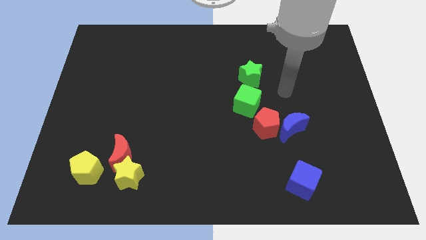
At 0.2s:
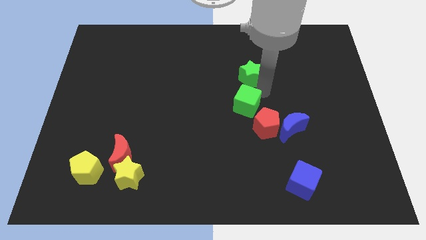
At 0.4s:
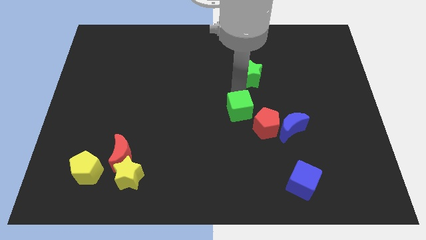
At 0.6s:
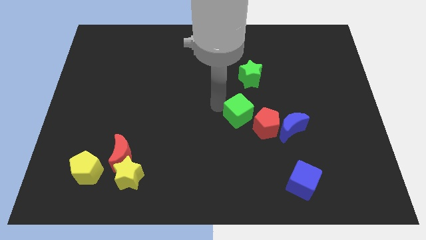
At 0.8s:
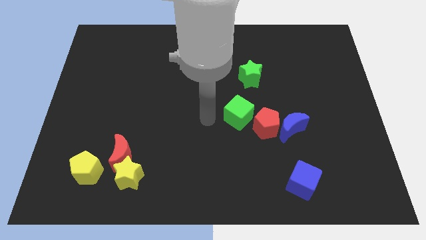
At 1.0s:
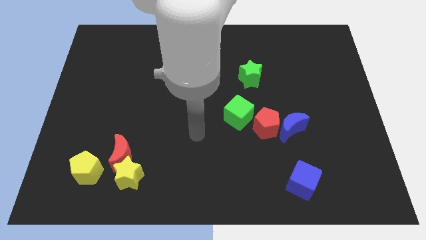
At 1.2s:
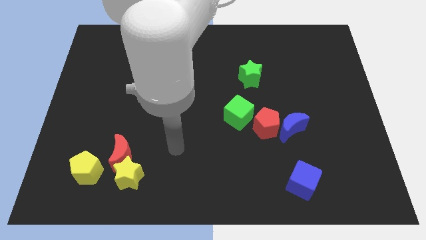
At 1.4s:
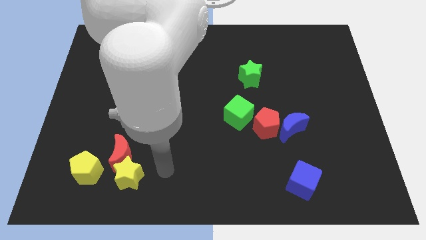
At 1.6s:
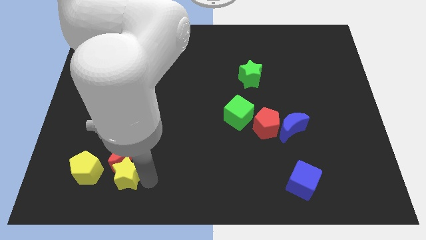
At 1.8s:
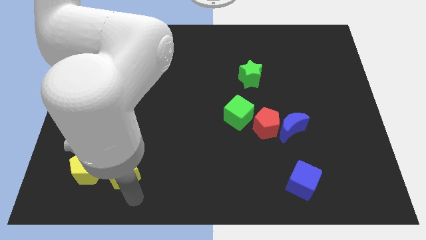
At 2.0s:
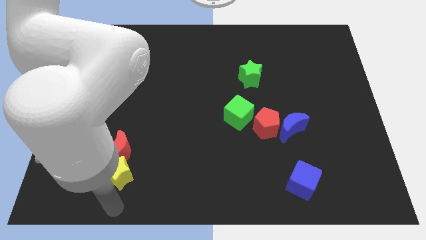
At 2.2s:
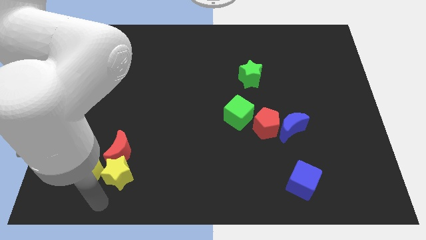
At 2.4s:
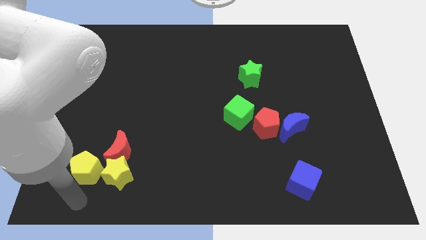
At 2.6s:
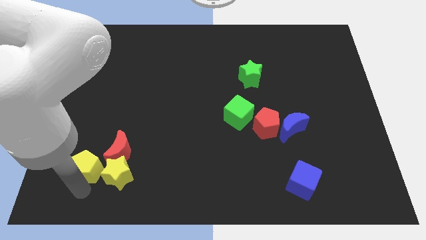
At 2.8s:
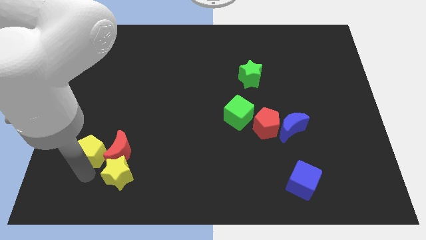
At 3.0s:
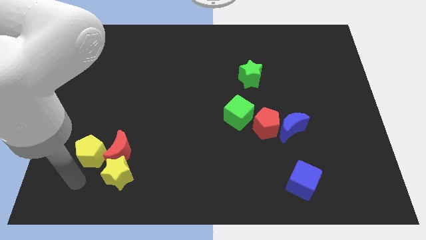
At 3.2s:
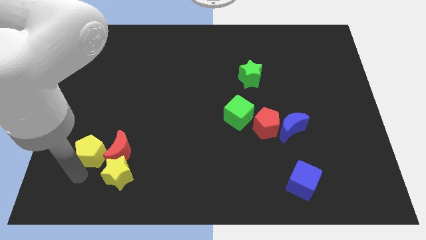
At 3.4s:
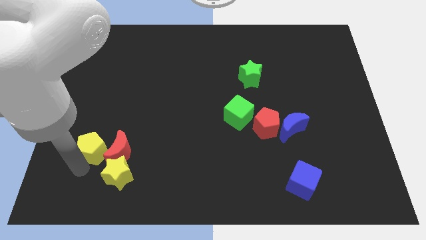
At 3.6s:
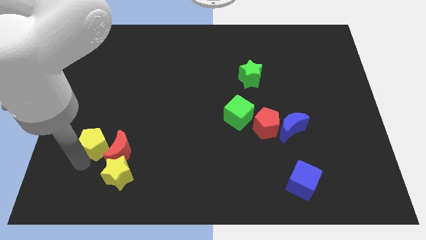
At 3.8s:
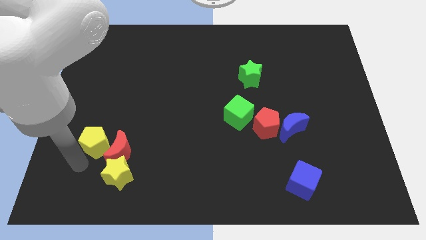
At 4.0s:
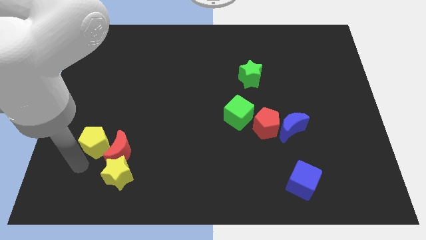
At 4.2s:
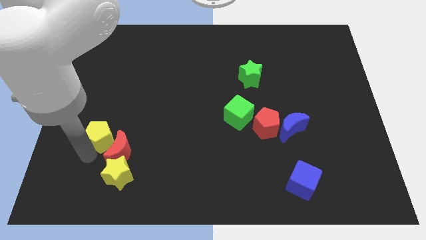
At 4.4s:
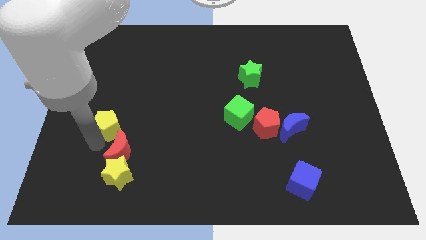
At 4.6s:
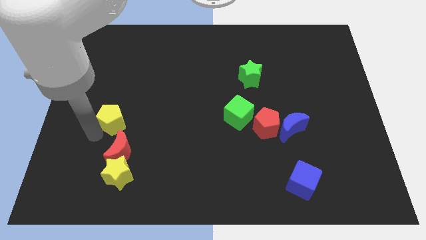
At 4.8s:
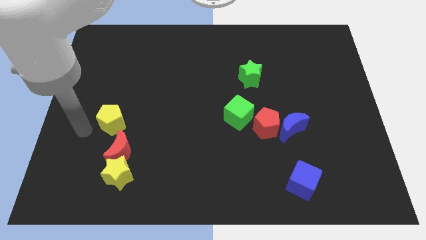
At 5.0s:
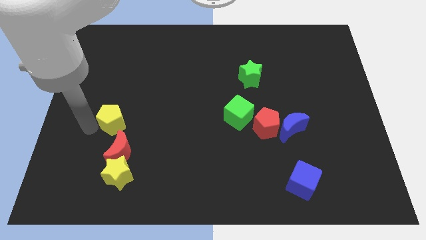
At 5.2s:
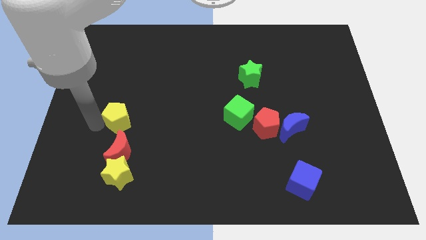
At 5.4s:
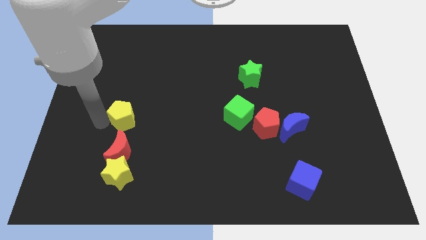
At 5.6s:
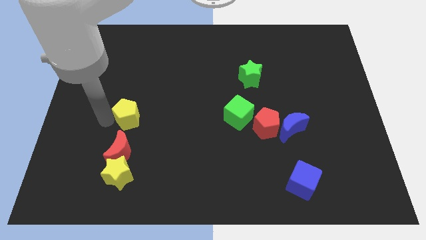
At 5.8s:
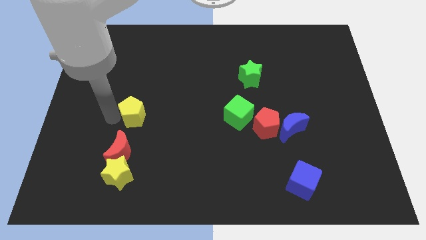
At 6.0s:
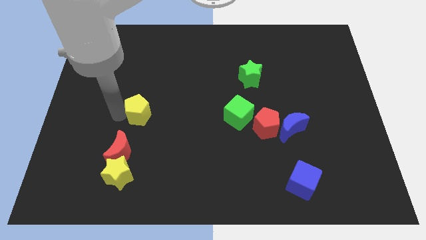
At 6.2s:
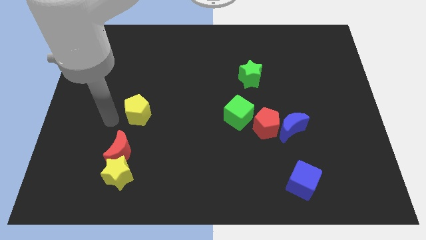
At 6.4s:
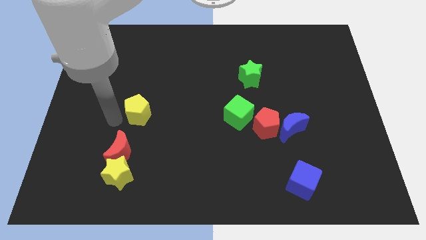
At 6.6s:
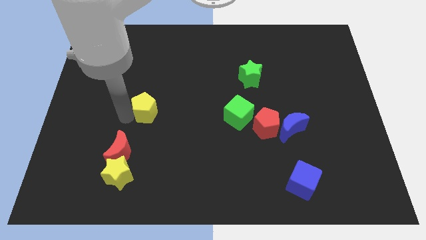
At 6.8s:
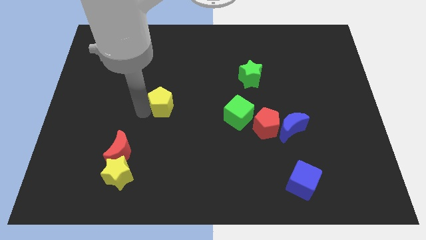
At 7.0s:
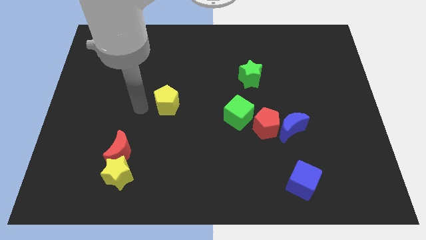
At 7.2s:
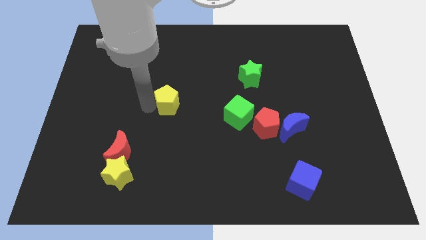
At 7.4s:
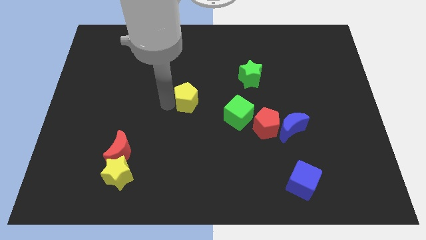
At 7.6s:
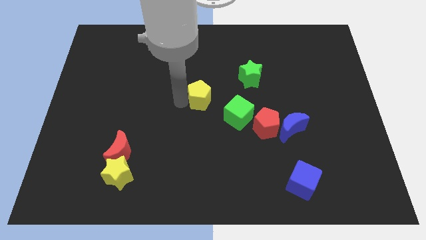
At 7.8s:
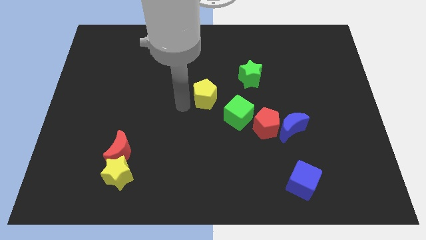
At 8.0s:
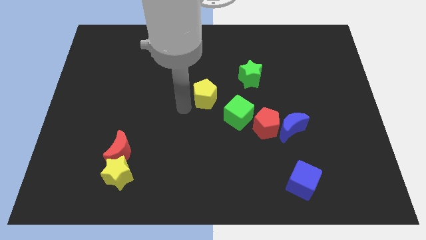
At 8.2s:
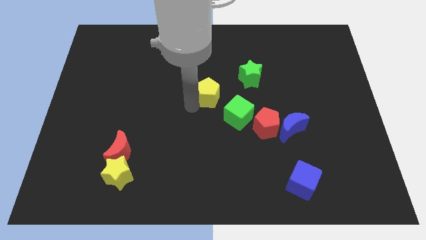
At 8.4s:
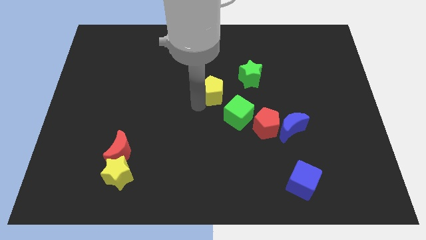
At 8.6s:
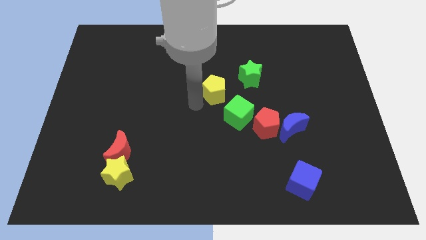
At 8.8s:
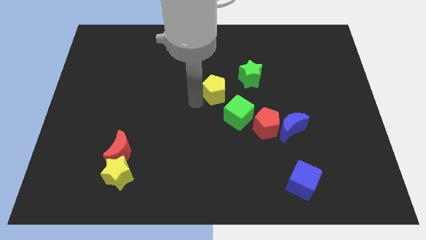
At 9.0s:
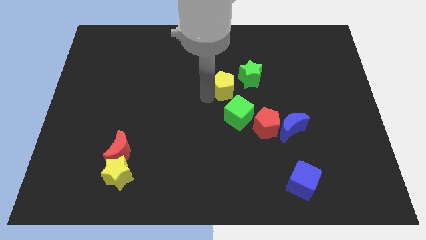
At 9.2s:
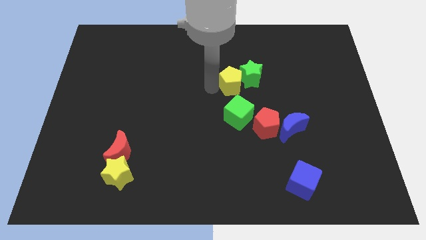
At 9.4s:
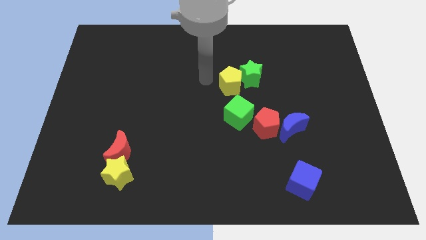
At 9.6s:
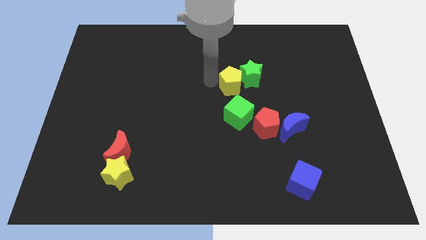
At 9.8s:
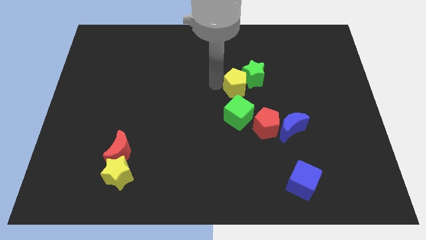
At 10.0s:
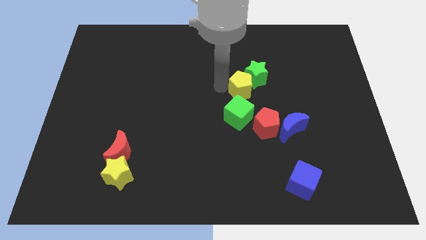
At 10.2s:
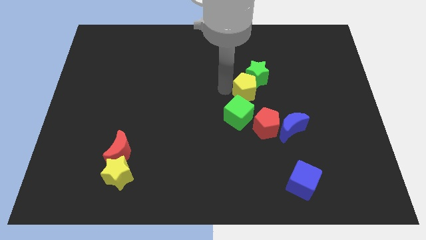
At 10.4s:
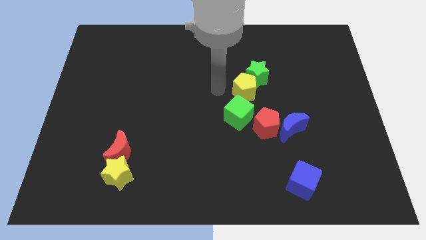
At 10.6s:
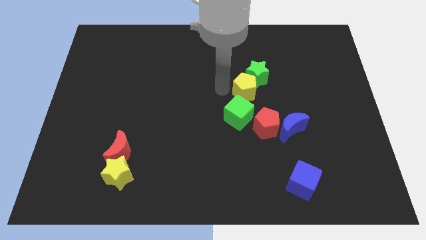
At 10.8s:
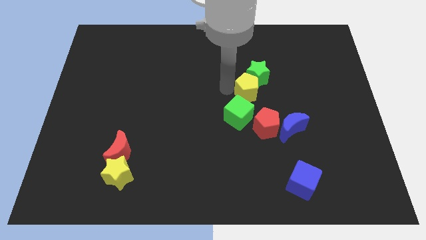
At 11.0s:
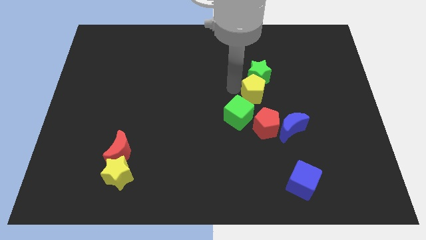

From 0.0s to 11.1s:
put the yellow pentagon to the bottom right of the green star
